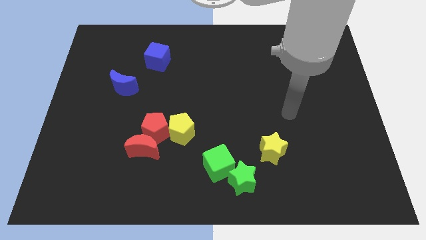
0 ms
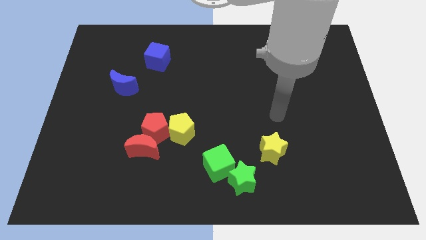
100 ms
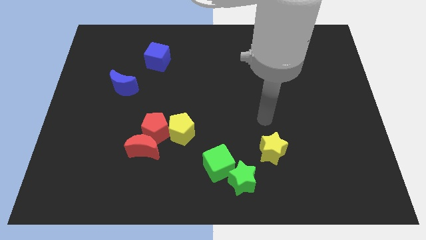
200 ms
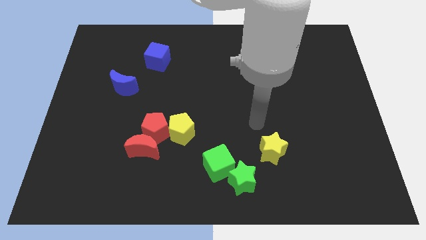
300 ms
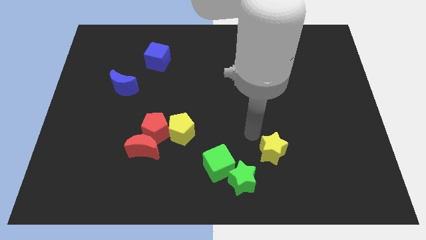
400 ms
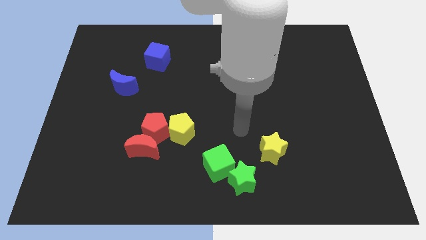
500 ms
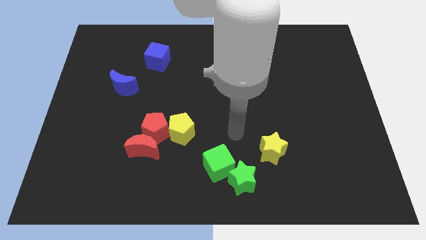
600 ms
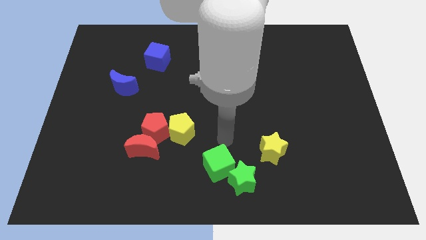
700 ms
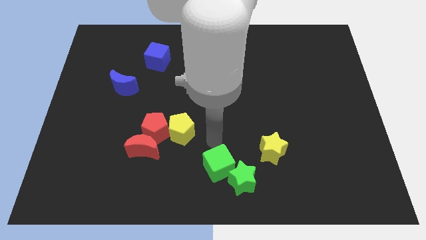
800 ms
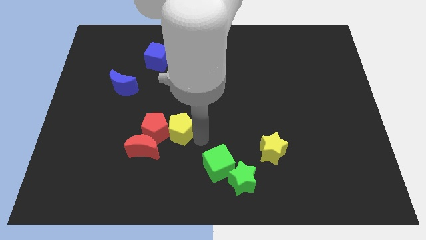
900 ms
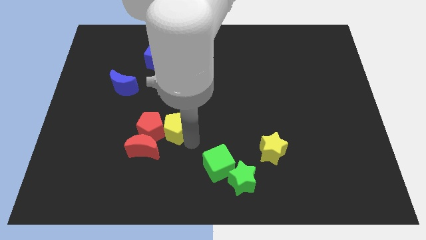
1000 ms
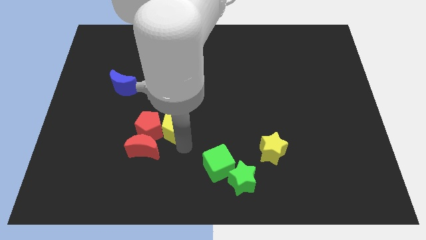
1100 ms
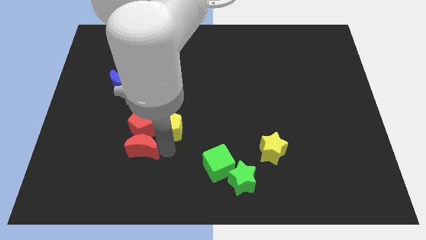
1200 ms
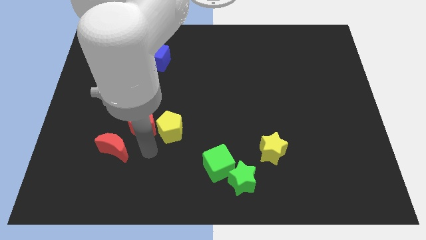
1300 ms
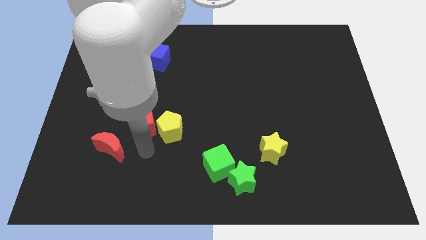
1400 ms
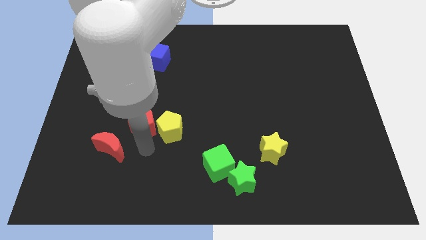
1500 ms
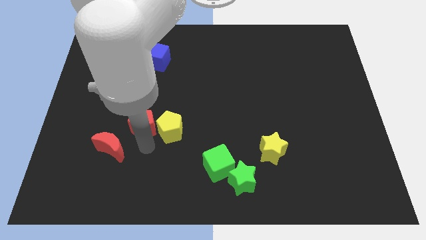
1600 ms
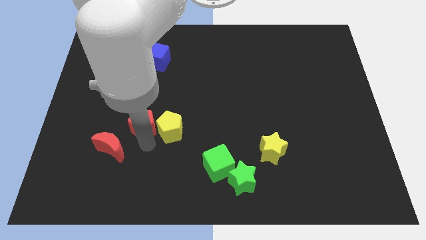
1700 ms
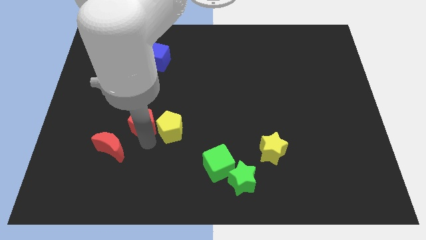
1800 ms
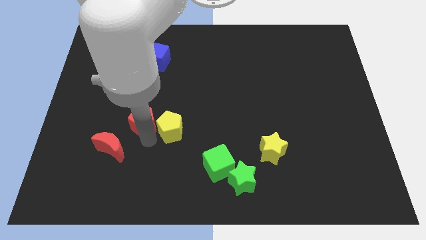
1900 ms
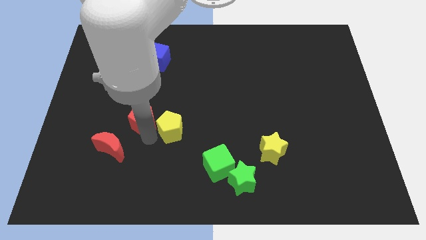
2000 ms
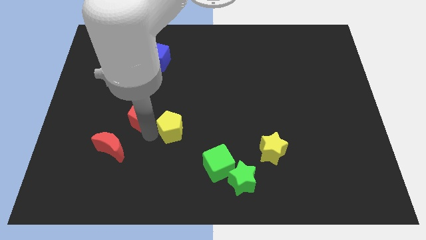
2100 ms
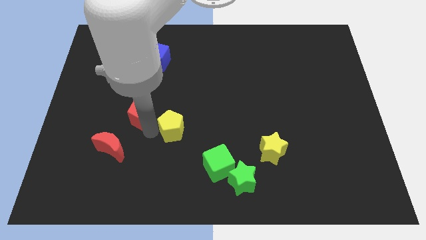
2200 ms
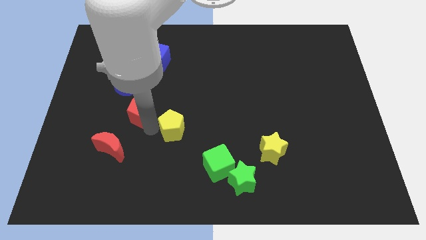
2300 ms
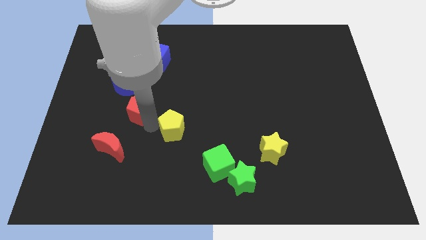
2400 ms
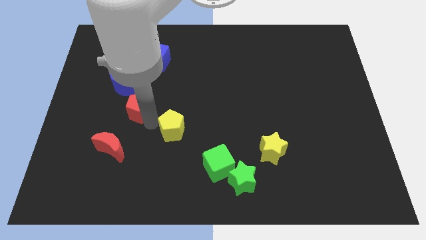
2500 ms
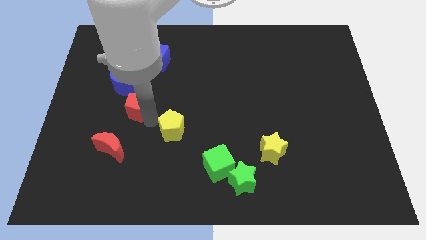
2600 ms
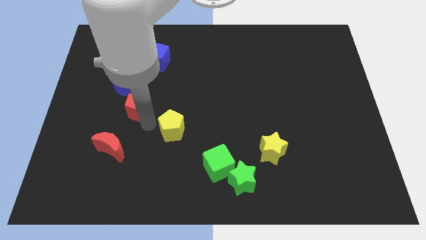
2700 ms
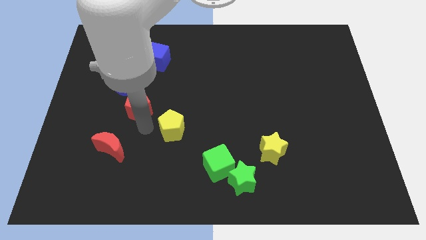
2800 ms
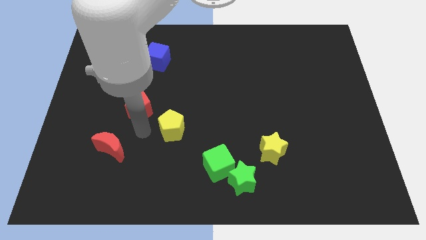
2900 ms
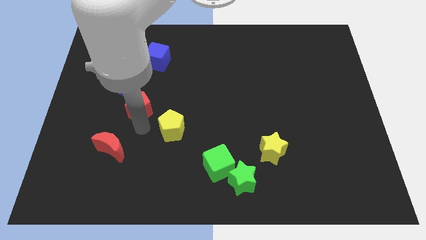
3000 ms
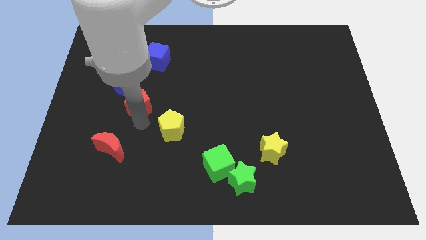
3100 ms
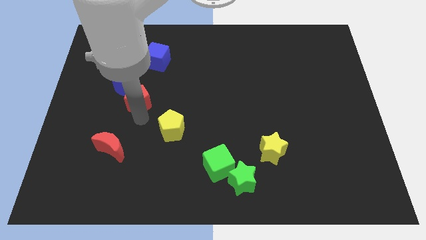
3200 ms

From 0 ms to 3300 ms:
move the red pentagon away from the red moon and yellow pentagon

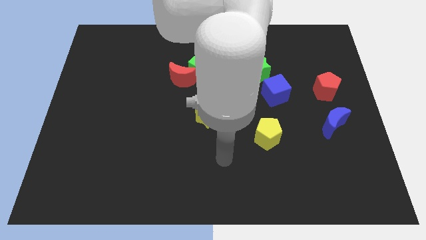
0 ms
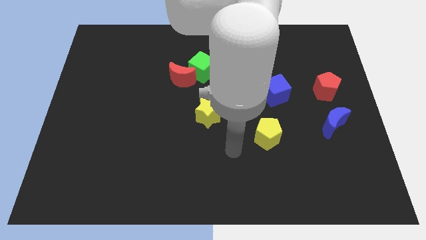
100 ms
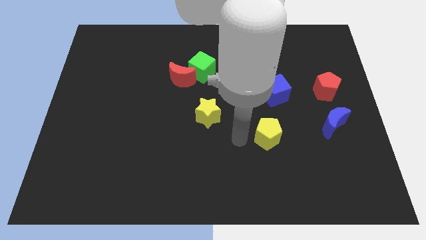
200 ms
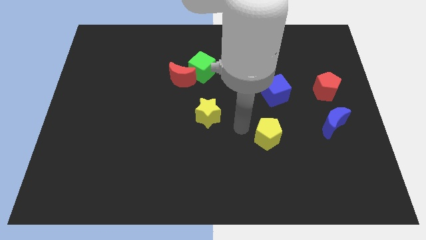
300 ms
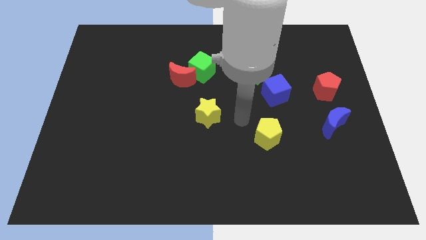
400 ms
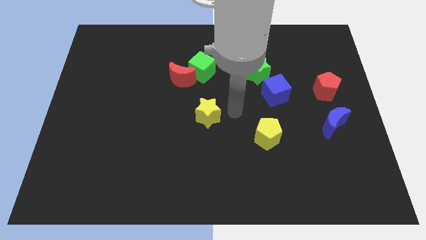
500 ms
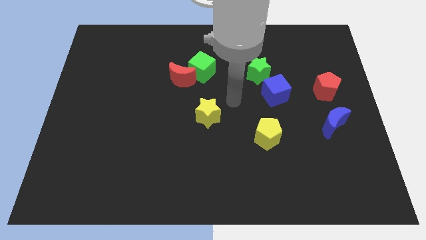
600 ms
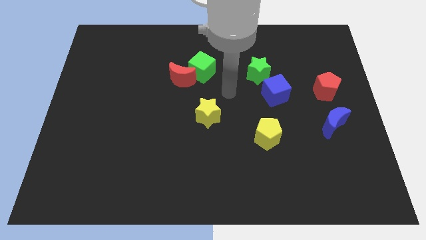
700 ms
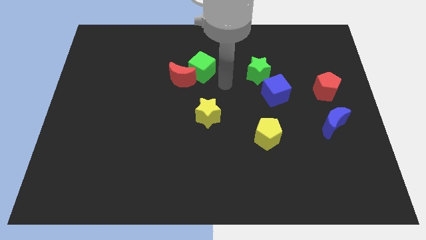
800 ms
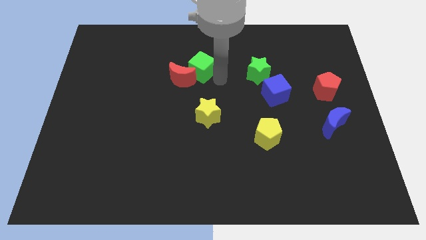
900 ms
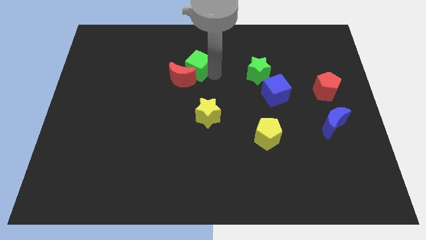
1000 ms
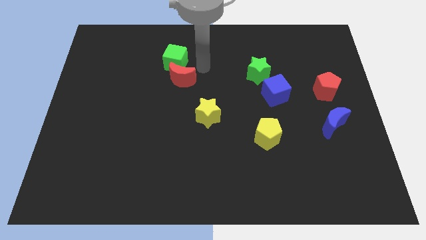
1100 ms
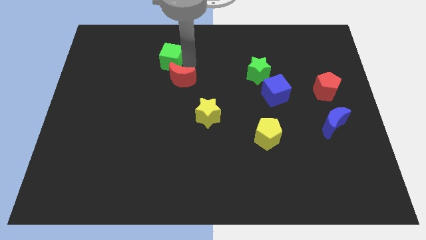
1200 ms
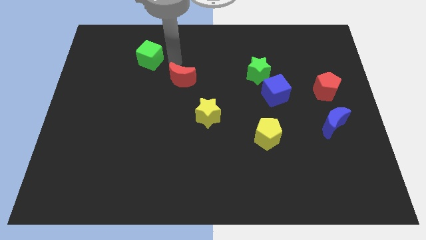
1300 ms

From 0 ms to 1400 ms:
pull the red moon apart from the green cube

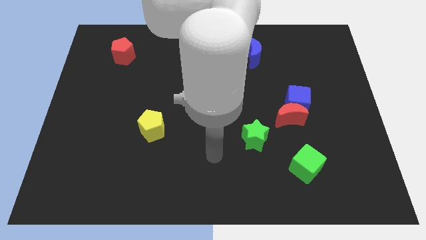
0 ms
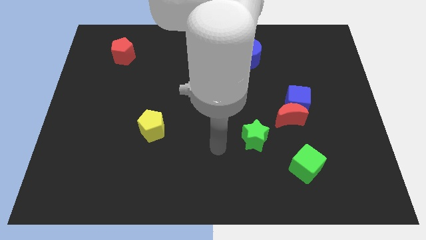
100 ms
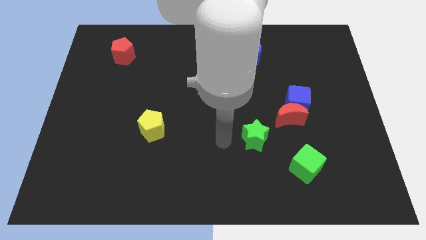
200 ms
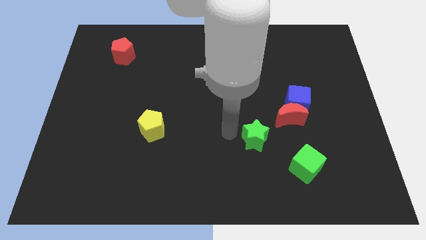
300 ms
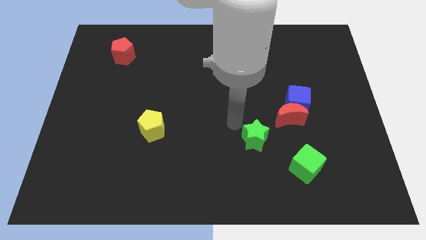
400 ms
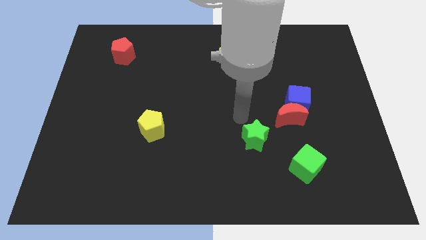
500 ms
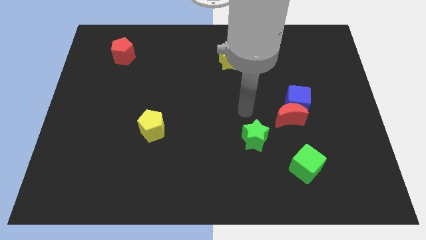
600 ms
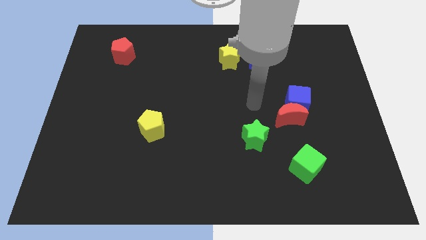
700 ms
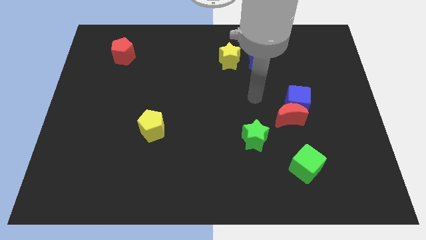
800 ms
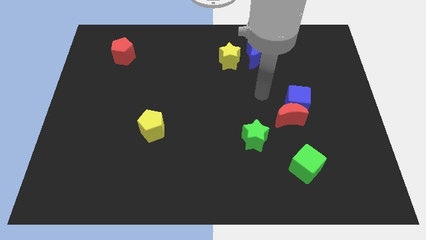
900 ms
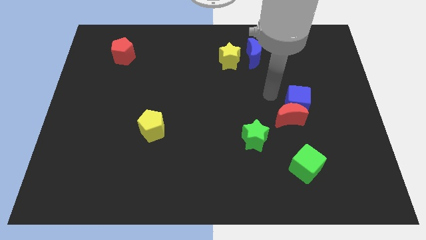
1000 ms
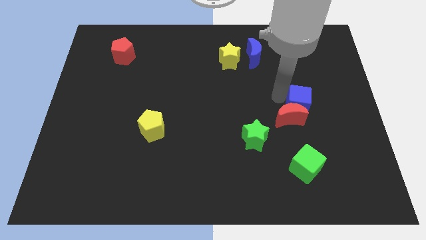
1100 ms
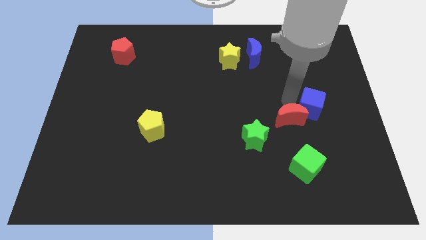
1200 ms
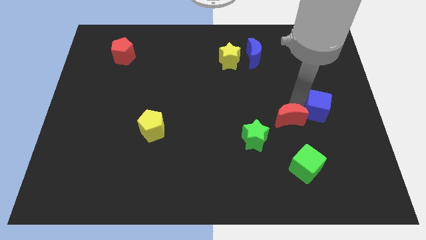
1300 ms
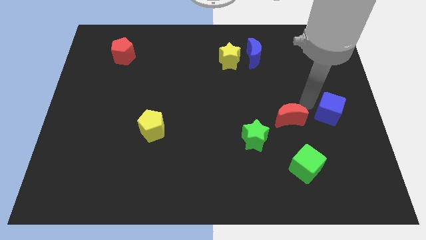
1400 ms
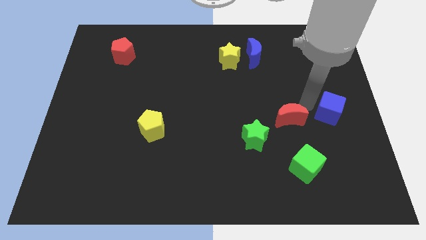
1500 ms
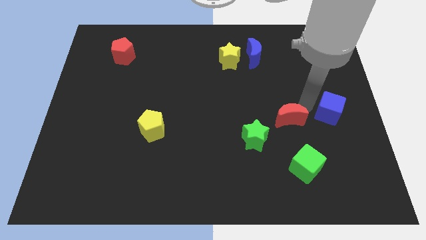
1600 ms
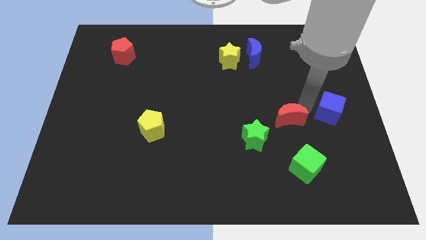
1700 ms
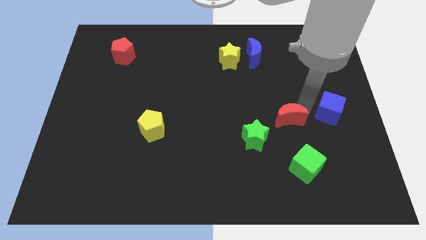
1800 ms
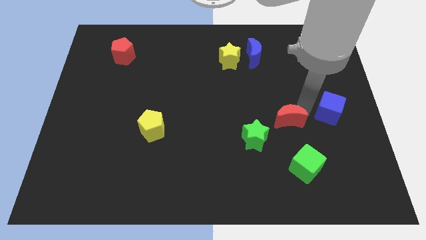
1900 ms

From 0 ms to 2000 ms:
move the red moon away from the blue cube

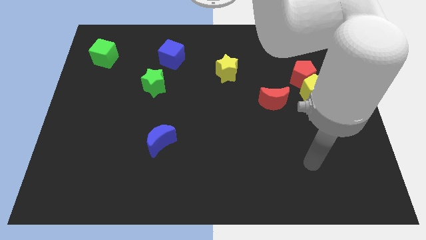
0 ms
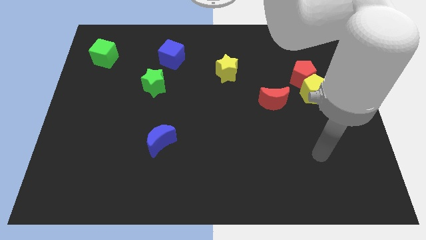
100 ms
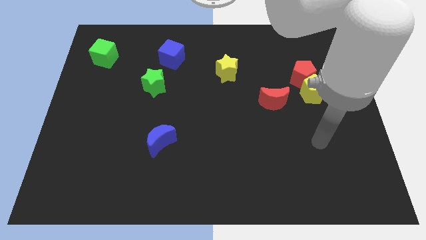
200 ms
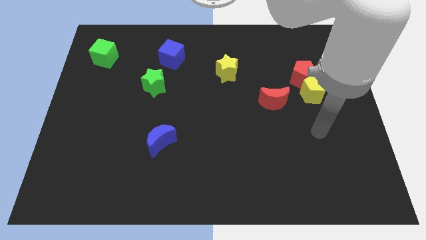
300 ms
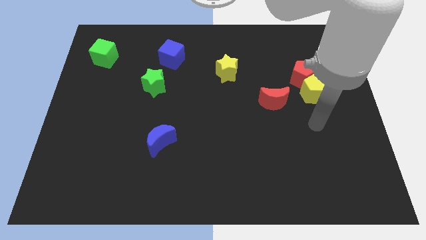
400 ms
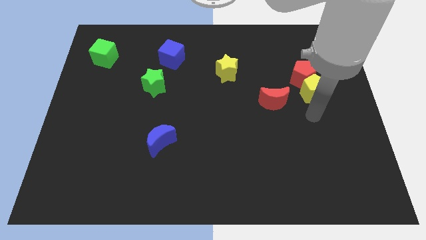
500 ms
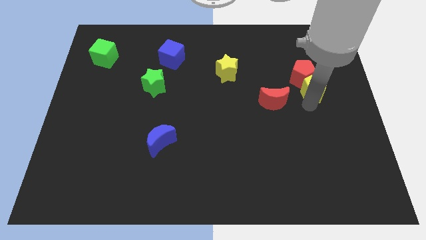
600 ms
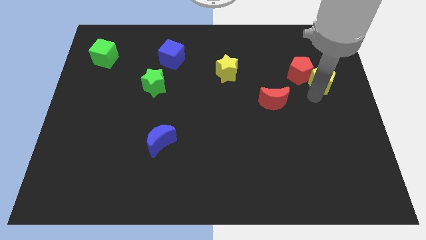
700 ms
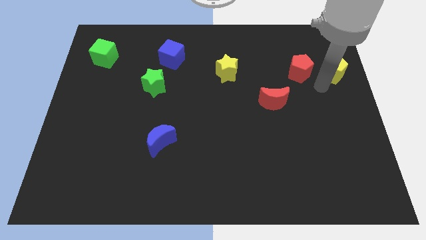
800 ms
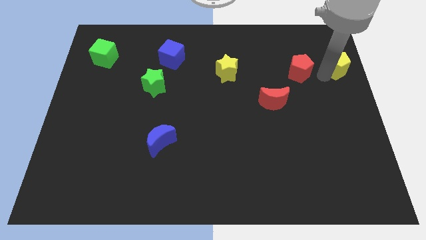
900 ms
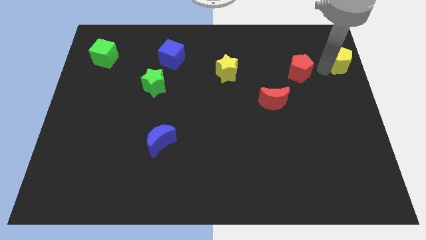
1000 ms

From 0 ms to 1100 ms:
pull the red pentagon apart from the yellow pentagon

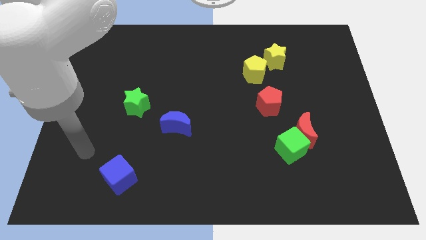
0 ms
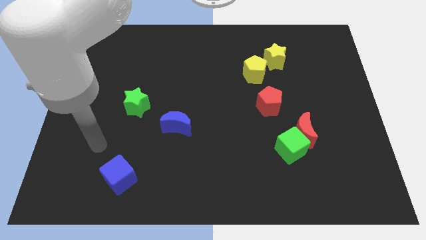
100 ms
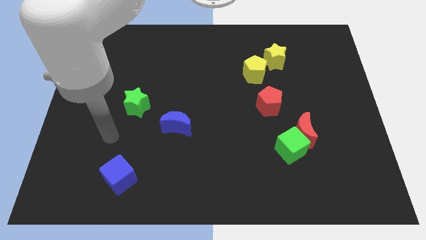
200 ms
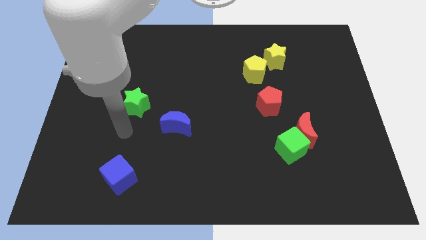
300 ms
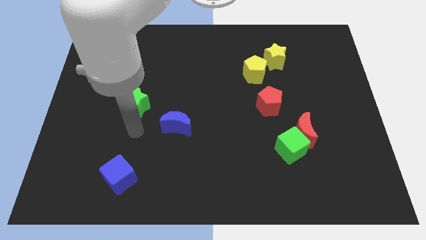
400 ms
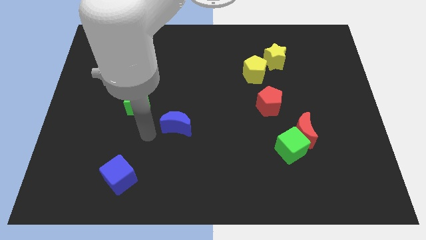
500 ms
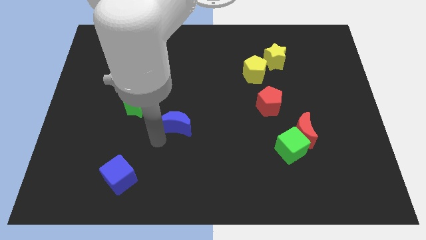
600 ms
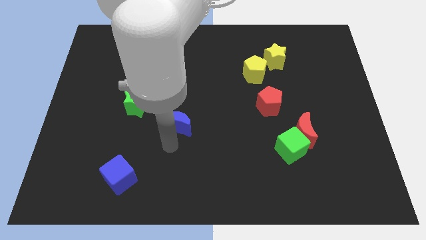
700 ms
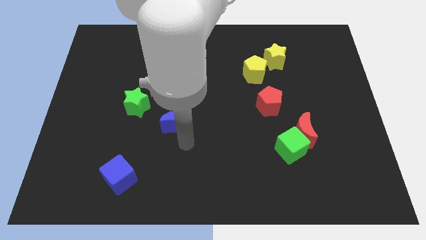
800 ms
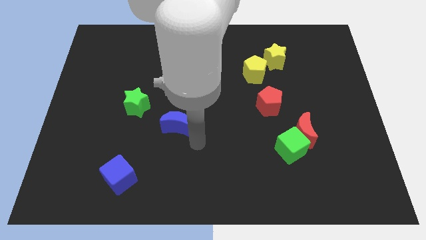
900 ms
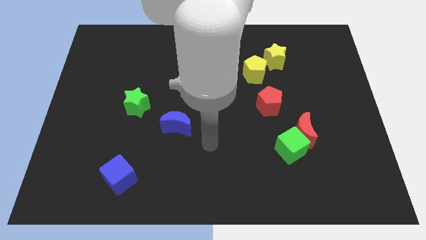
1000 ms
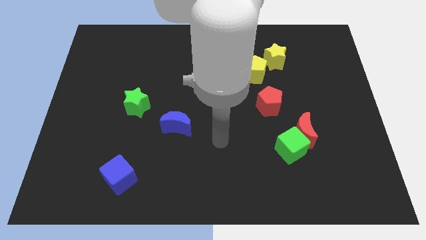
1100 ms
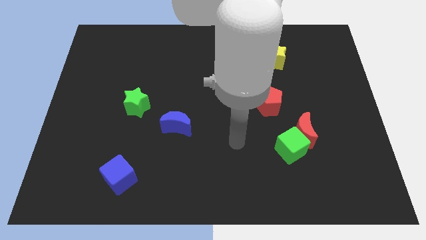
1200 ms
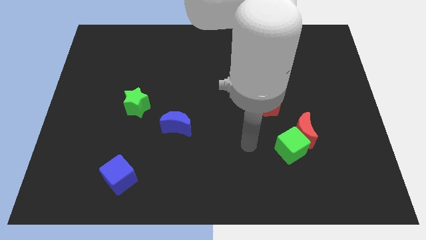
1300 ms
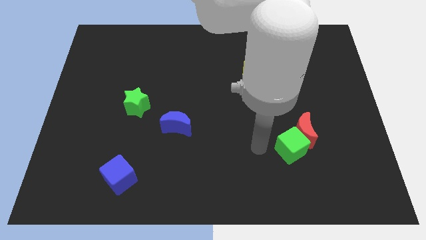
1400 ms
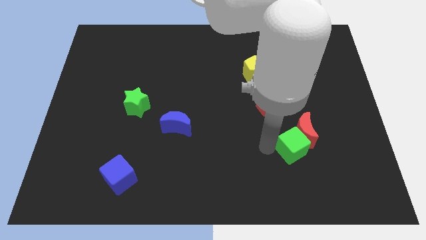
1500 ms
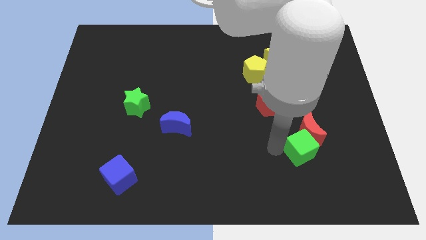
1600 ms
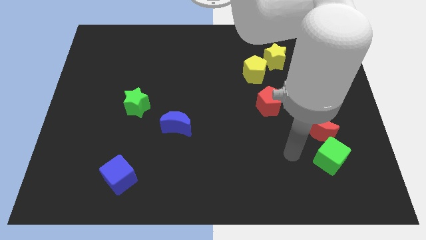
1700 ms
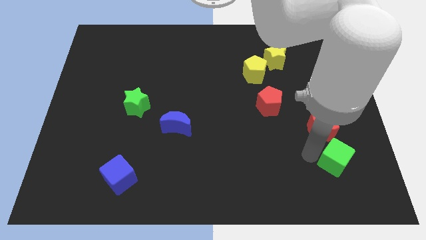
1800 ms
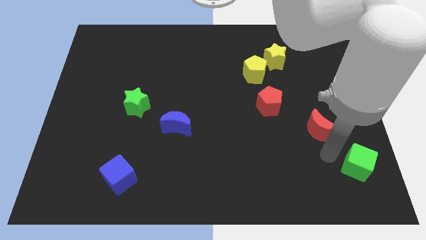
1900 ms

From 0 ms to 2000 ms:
separate the red moon from the green cube
